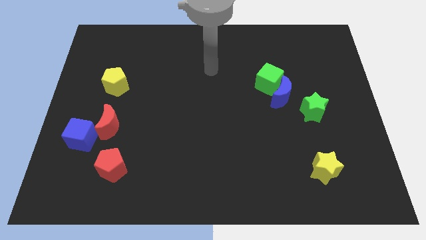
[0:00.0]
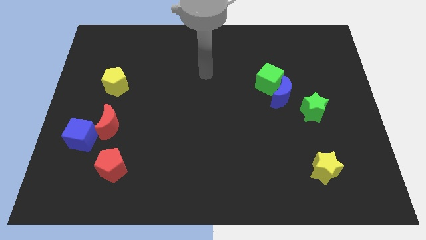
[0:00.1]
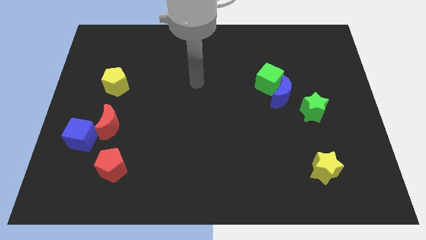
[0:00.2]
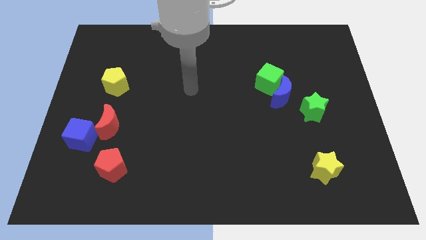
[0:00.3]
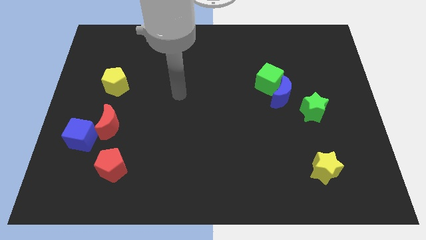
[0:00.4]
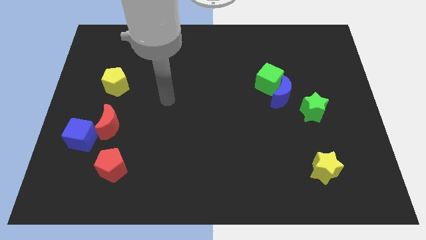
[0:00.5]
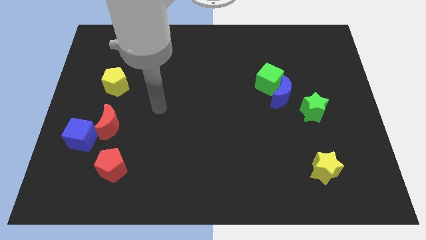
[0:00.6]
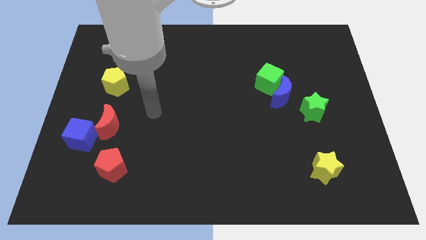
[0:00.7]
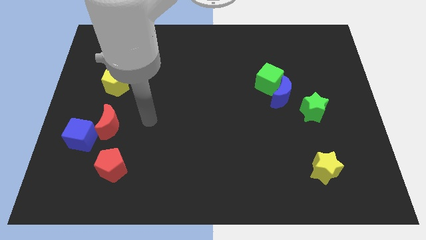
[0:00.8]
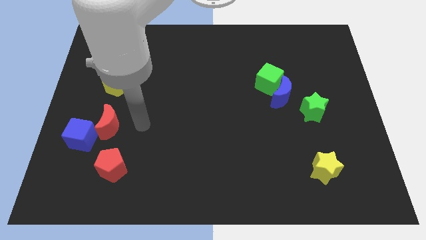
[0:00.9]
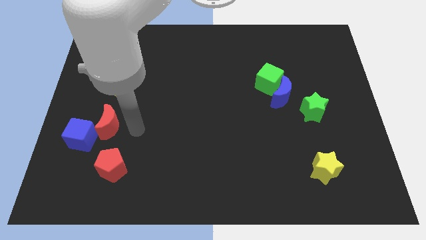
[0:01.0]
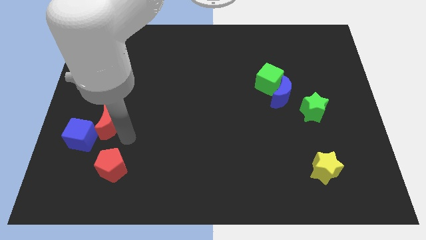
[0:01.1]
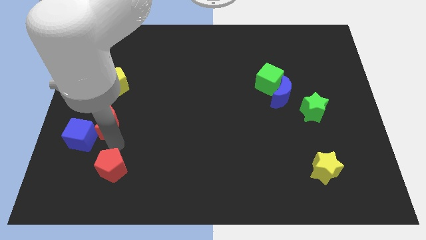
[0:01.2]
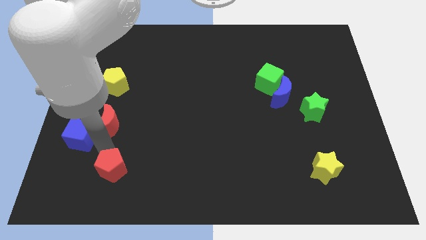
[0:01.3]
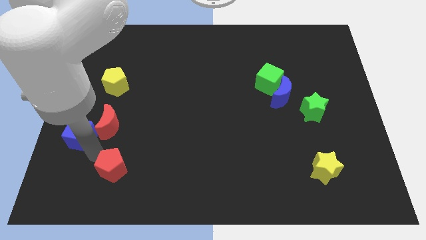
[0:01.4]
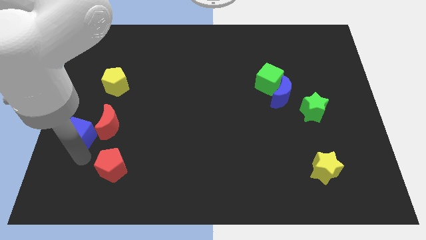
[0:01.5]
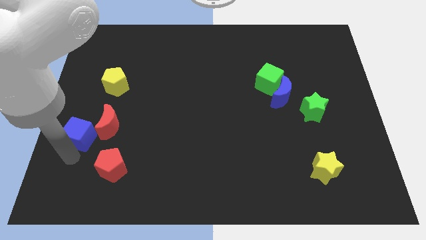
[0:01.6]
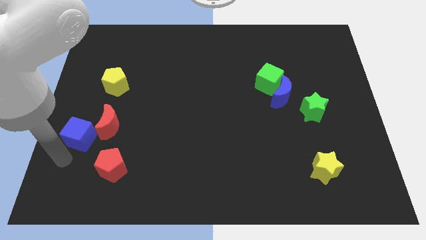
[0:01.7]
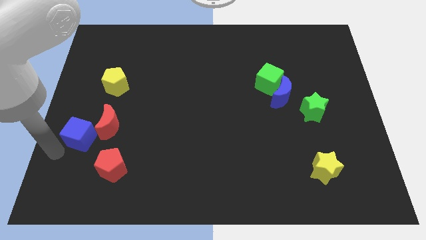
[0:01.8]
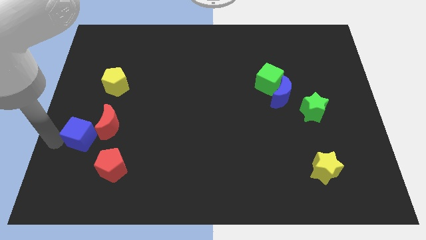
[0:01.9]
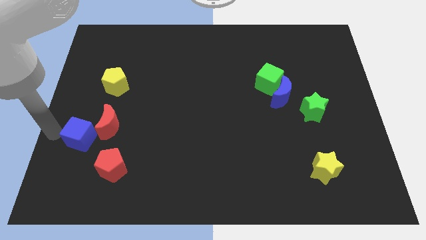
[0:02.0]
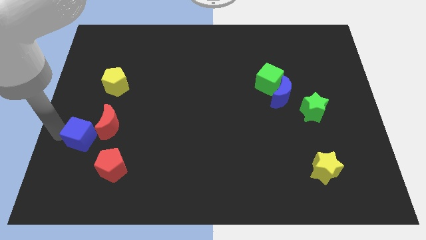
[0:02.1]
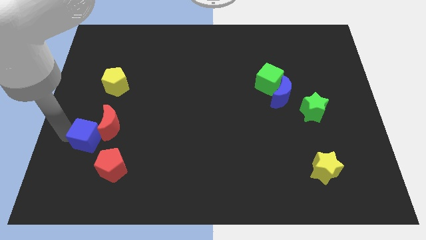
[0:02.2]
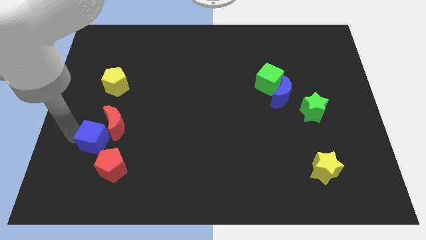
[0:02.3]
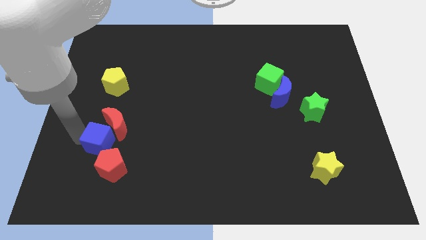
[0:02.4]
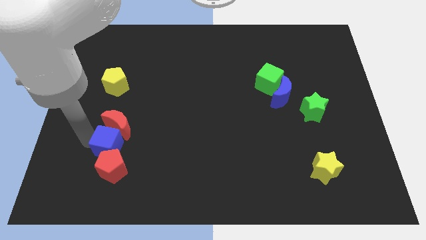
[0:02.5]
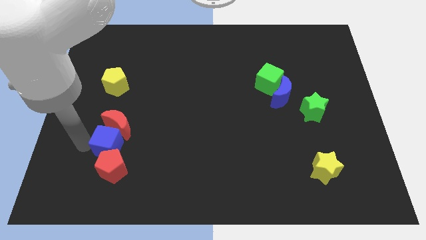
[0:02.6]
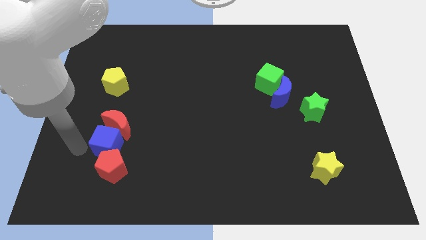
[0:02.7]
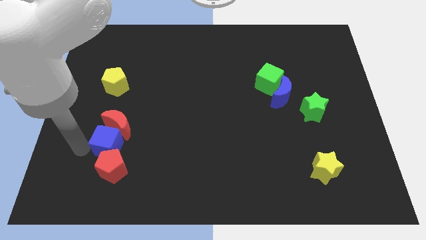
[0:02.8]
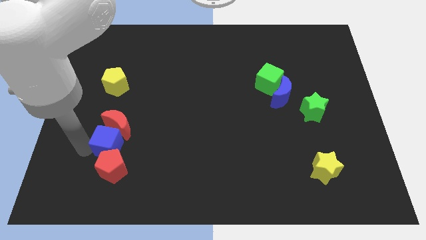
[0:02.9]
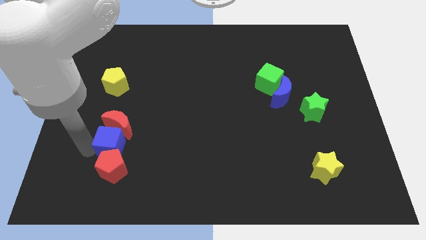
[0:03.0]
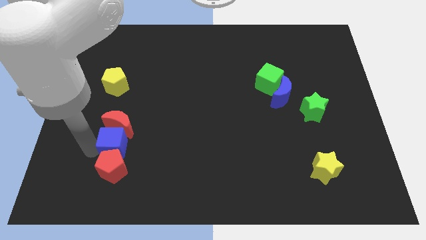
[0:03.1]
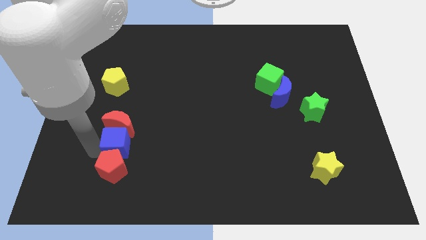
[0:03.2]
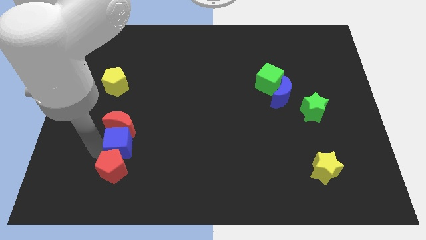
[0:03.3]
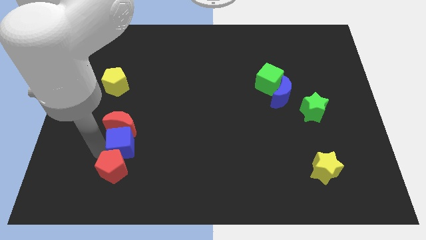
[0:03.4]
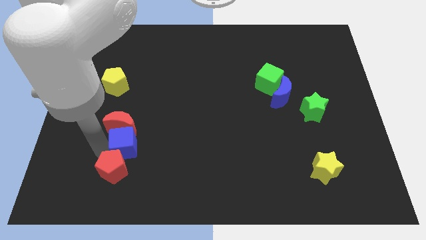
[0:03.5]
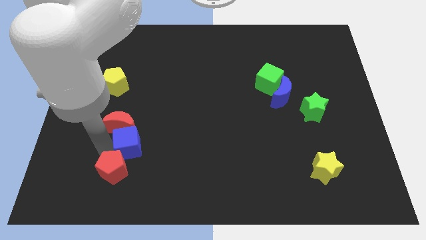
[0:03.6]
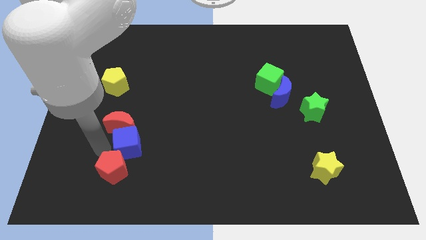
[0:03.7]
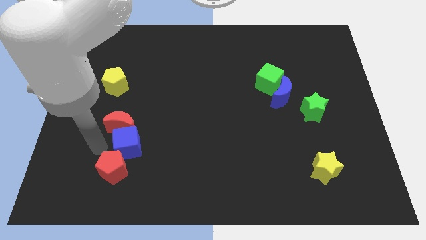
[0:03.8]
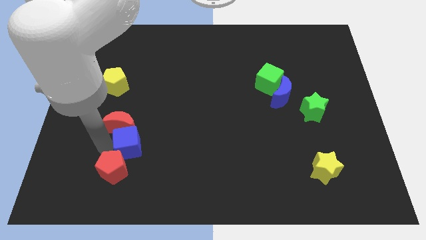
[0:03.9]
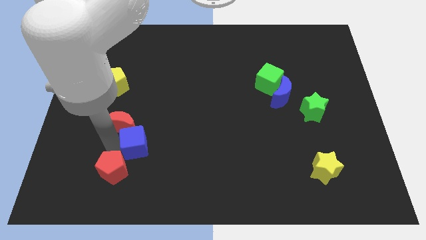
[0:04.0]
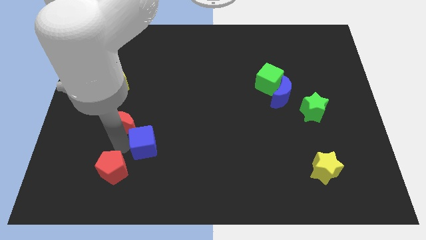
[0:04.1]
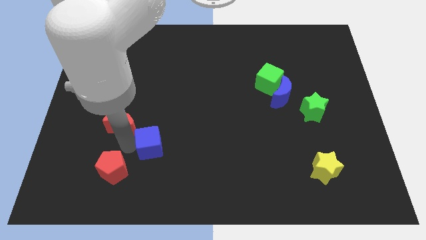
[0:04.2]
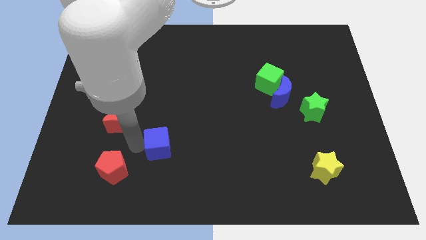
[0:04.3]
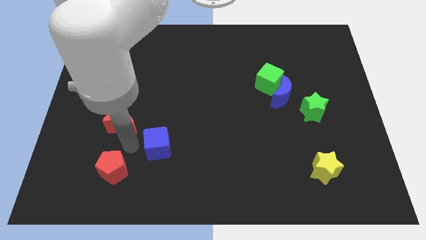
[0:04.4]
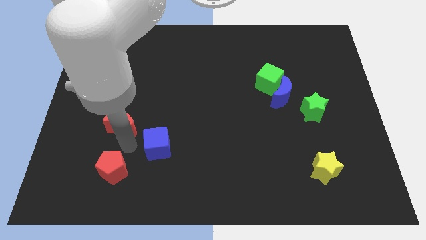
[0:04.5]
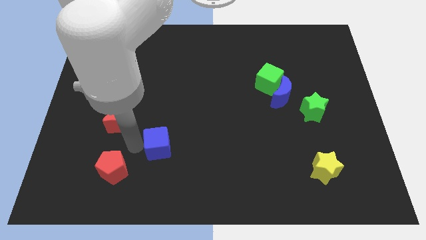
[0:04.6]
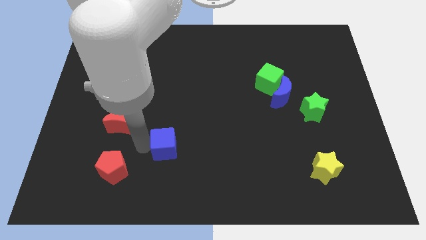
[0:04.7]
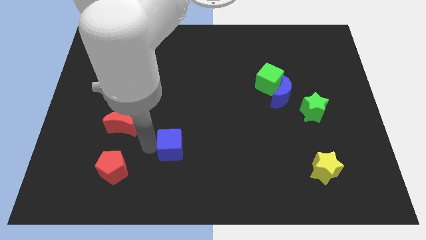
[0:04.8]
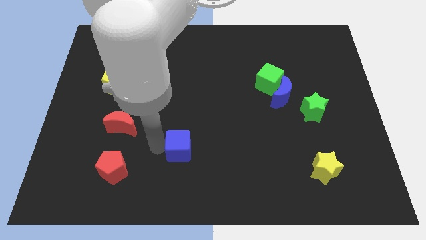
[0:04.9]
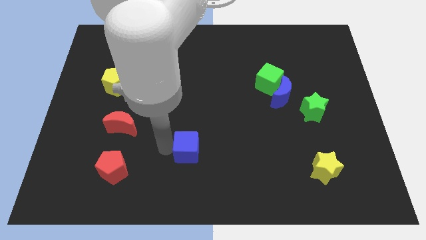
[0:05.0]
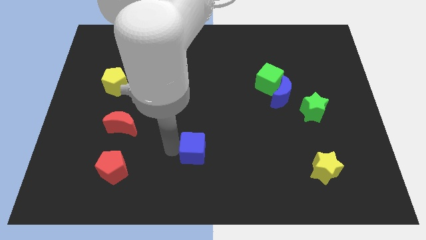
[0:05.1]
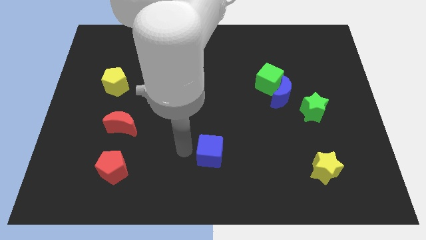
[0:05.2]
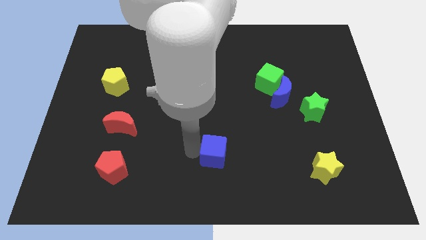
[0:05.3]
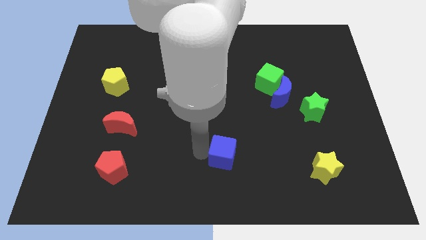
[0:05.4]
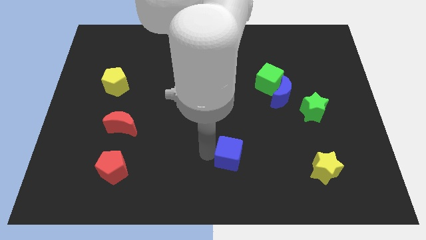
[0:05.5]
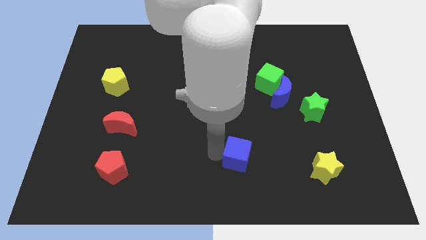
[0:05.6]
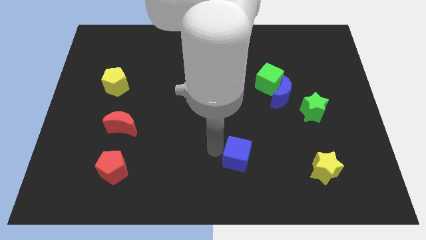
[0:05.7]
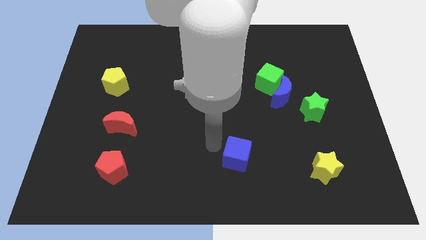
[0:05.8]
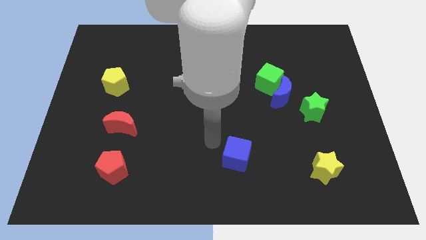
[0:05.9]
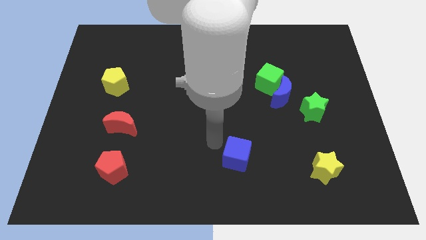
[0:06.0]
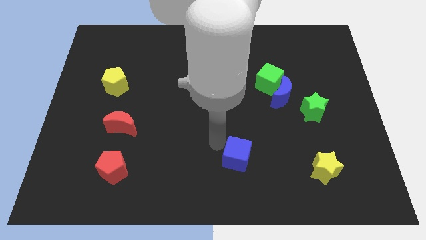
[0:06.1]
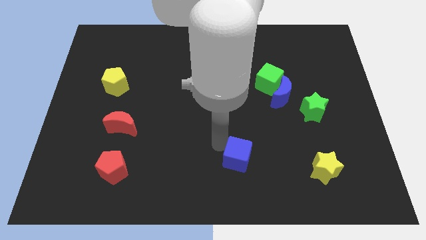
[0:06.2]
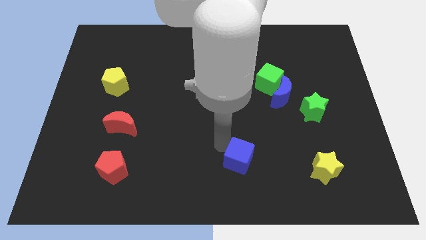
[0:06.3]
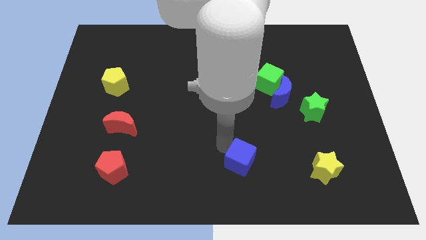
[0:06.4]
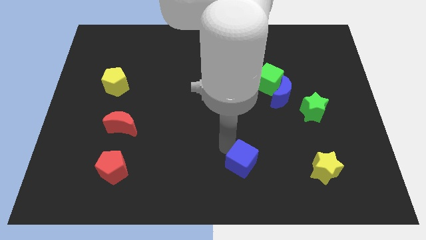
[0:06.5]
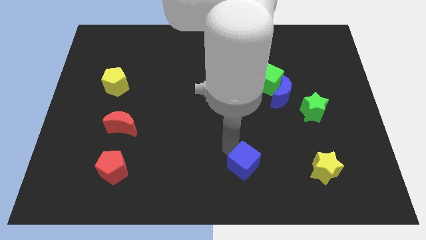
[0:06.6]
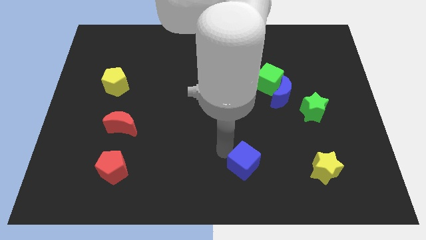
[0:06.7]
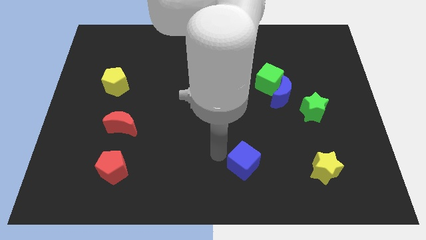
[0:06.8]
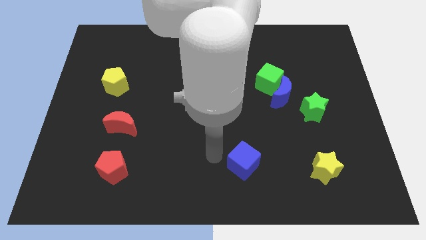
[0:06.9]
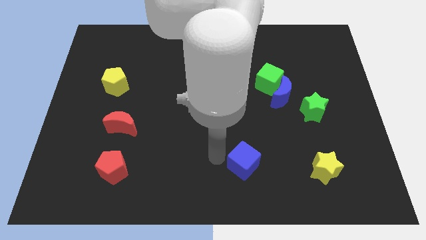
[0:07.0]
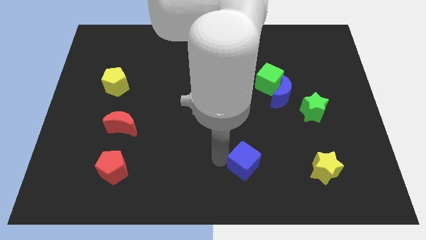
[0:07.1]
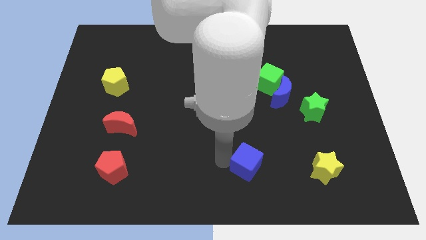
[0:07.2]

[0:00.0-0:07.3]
slide the blue cube to the left of the yellow star
